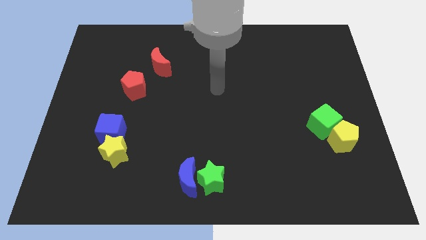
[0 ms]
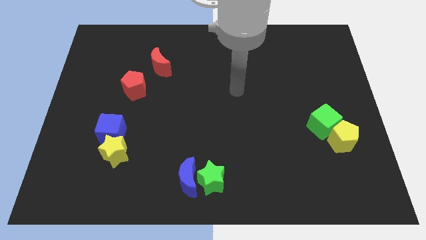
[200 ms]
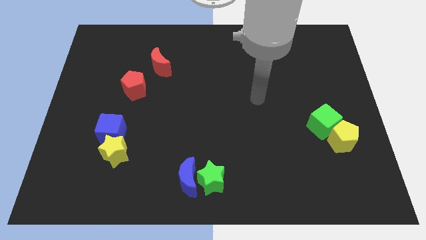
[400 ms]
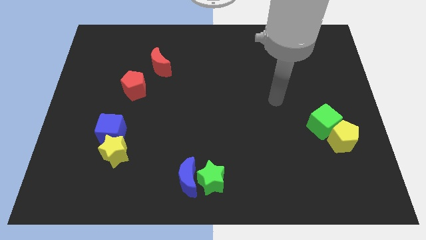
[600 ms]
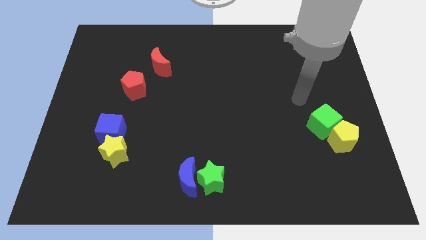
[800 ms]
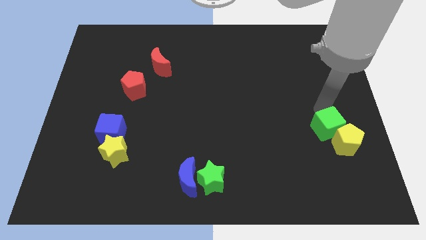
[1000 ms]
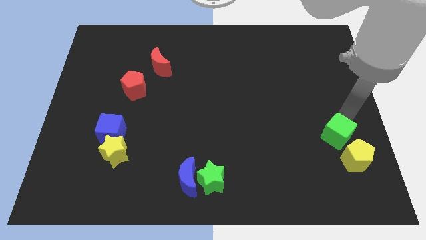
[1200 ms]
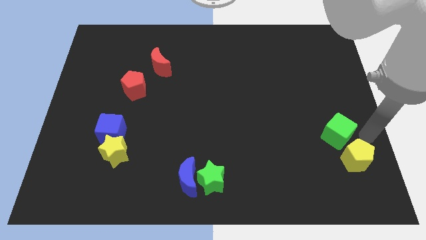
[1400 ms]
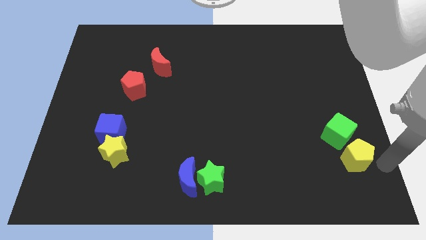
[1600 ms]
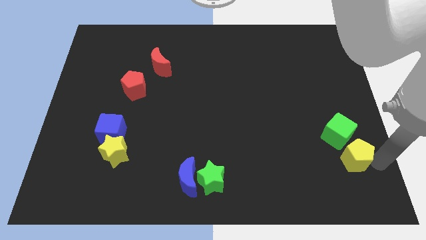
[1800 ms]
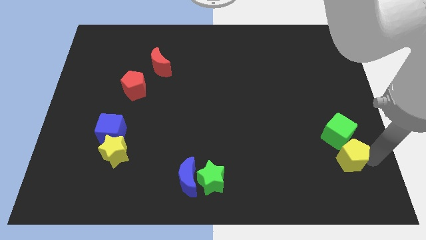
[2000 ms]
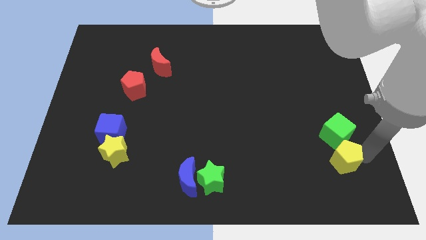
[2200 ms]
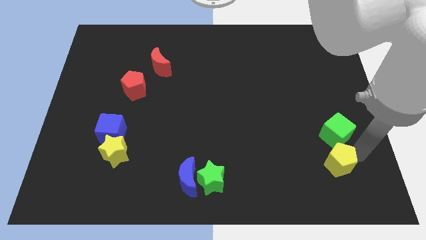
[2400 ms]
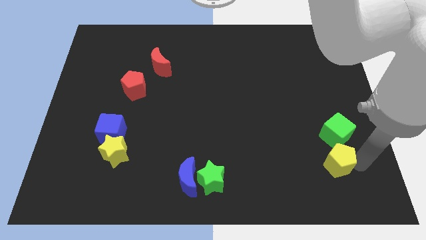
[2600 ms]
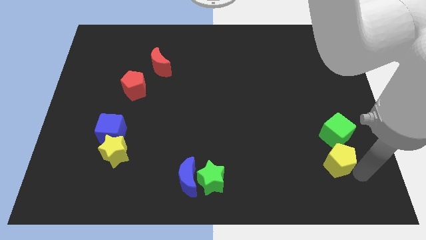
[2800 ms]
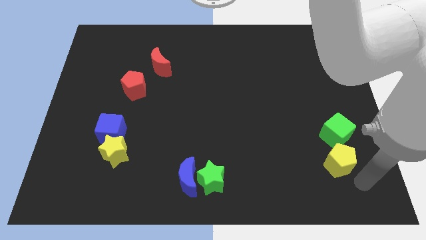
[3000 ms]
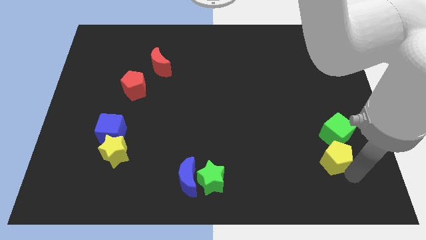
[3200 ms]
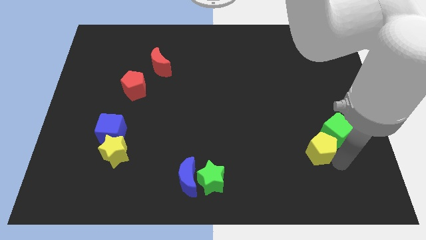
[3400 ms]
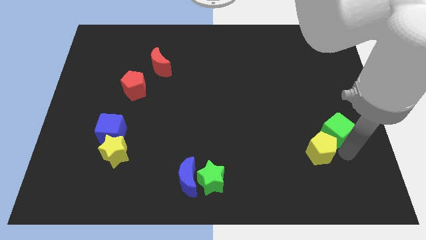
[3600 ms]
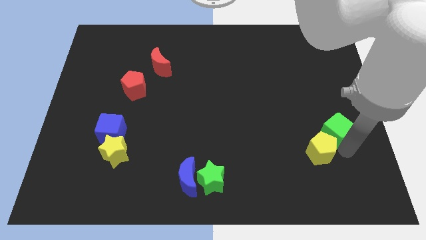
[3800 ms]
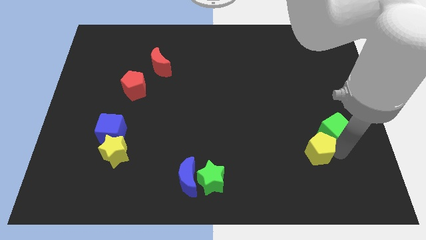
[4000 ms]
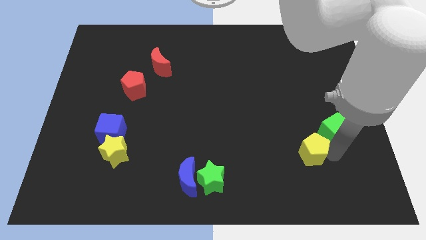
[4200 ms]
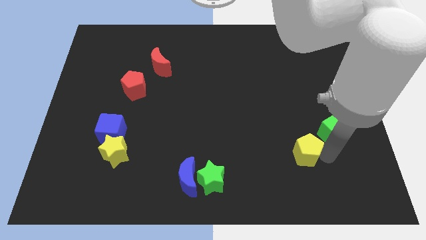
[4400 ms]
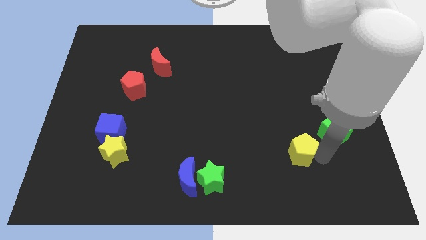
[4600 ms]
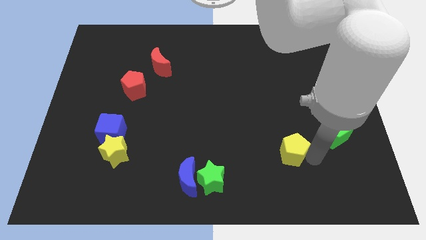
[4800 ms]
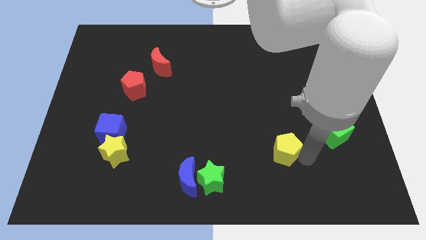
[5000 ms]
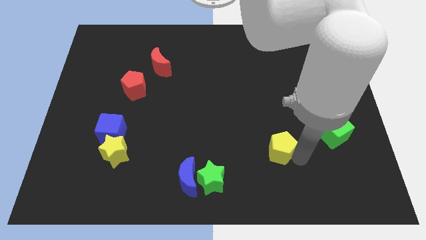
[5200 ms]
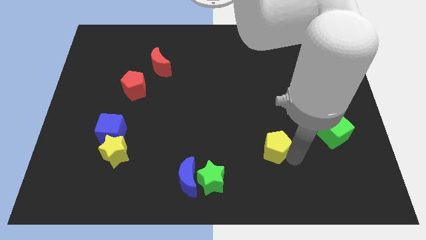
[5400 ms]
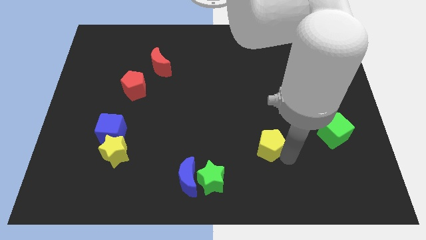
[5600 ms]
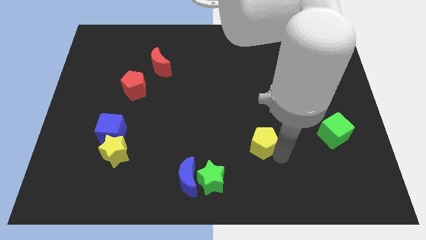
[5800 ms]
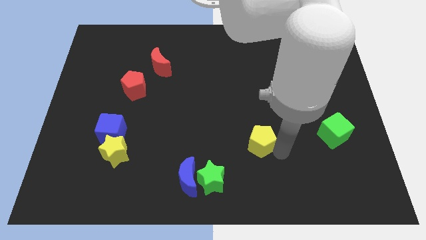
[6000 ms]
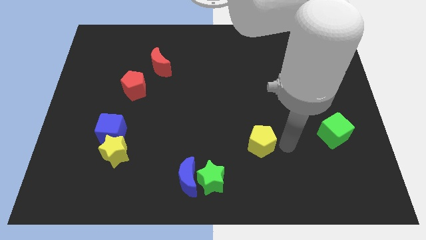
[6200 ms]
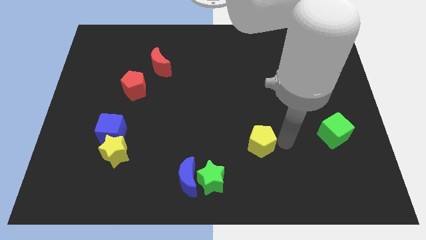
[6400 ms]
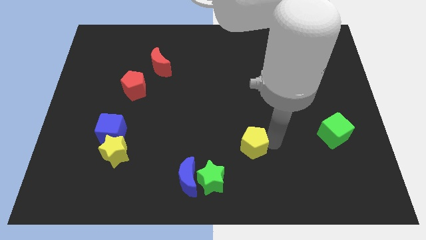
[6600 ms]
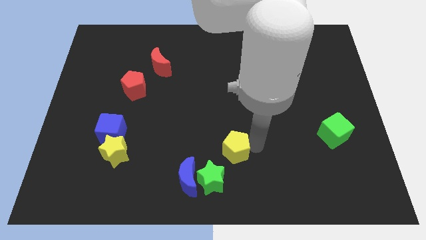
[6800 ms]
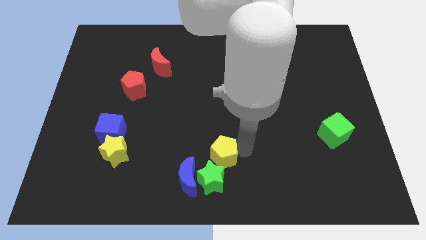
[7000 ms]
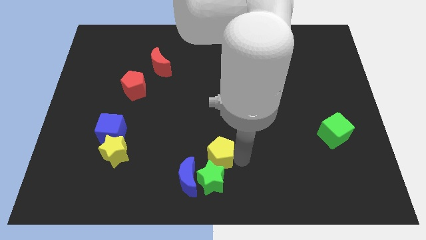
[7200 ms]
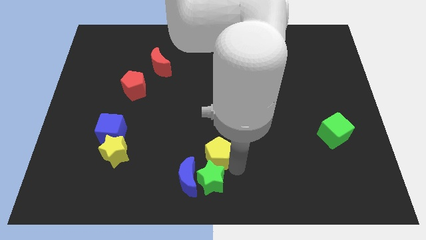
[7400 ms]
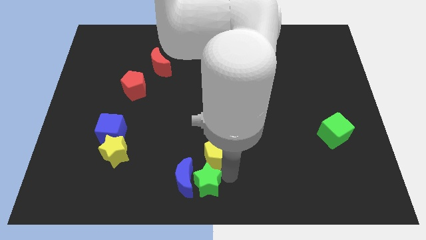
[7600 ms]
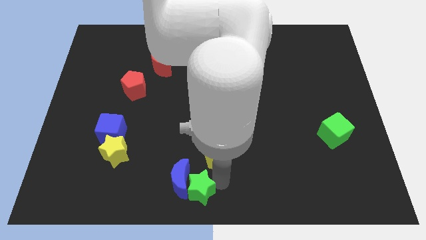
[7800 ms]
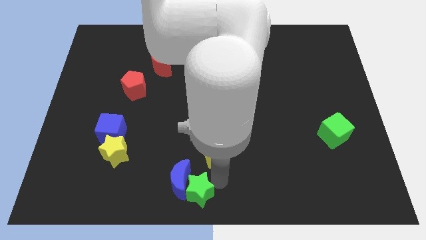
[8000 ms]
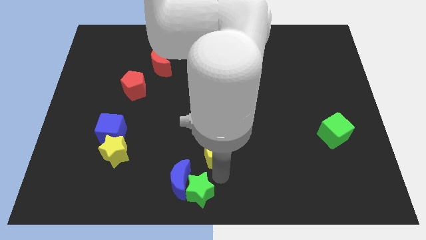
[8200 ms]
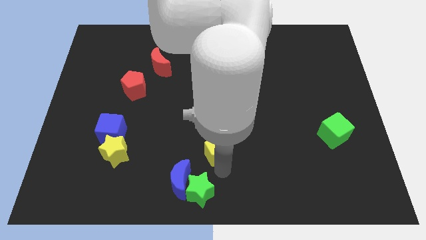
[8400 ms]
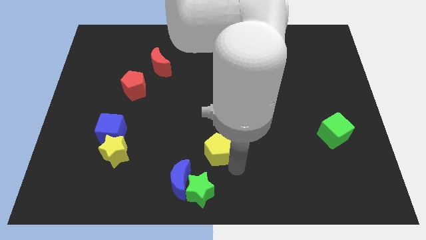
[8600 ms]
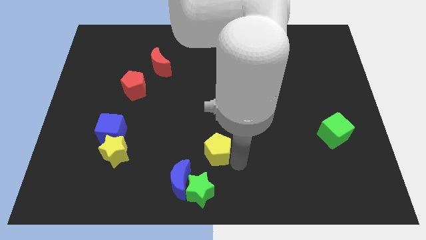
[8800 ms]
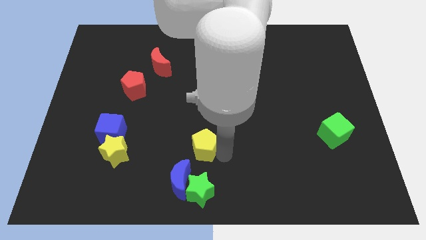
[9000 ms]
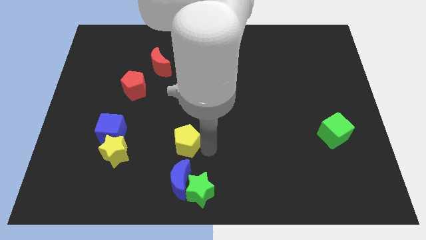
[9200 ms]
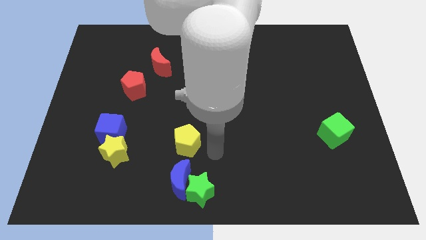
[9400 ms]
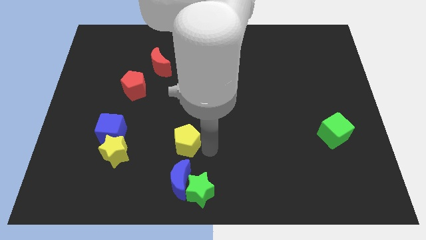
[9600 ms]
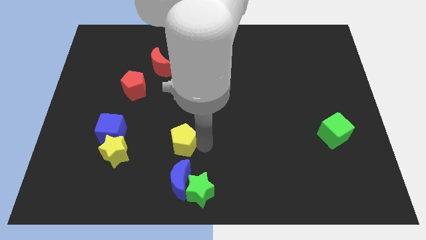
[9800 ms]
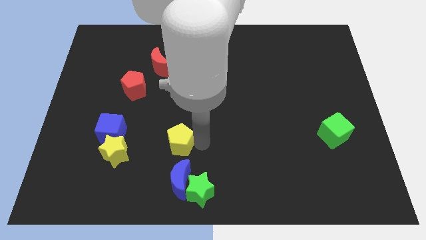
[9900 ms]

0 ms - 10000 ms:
put the yellow pentagon right of the blue cube

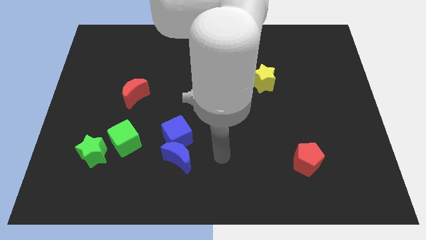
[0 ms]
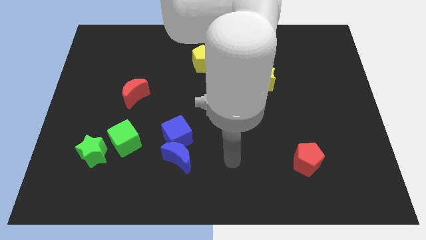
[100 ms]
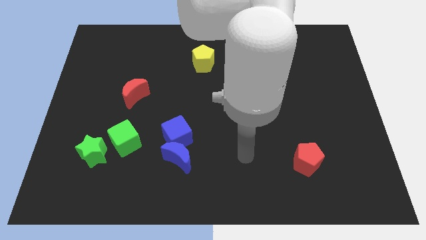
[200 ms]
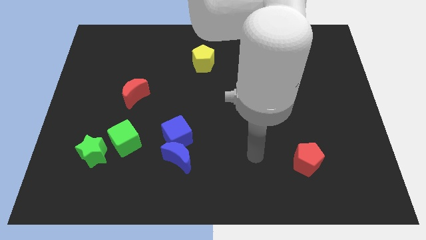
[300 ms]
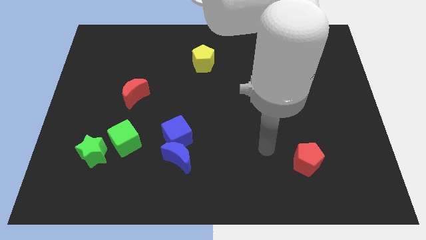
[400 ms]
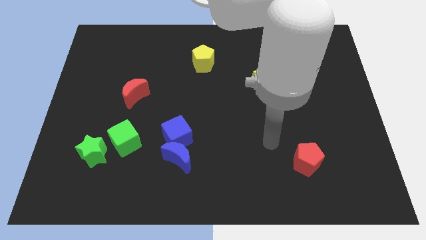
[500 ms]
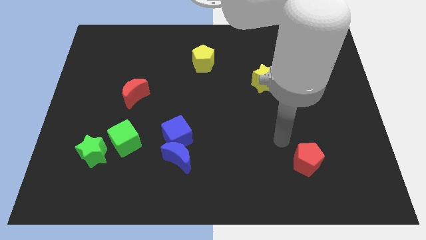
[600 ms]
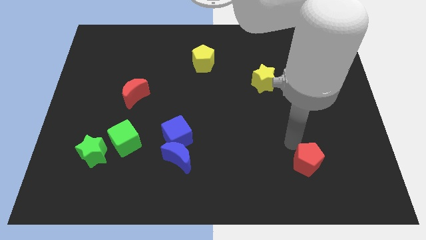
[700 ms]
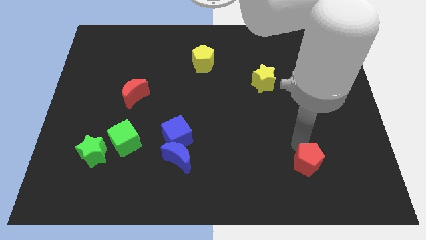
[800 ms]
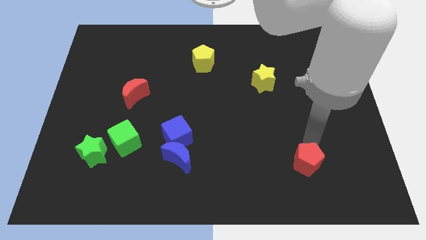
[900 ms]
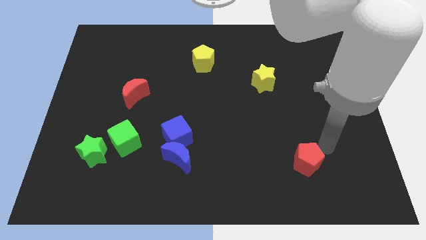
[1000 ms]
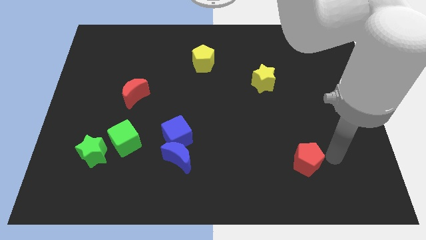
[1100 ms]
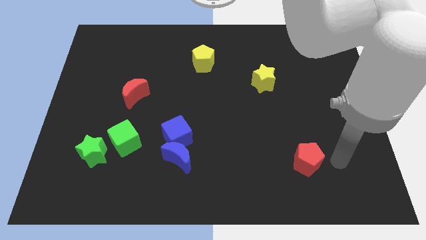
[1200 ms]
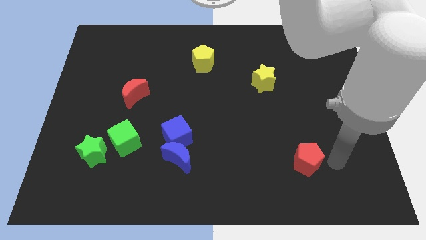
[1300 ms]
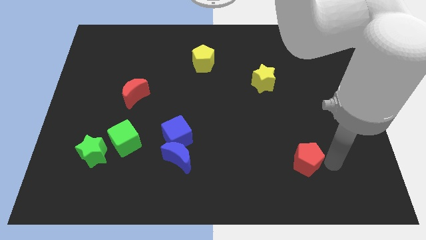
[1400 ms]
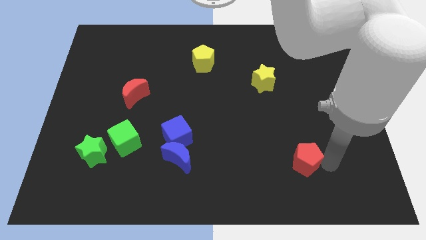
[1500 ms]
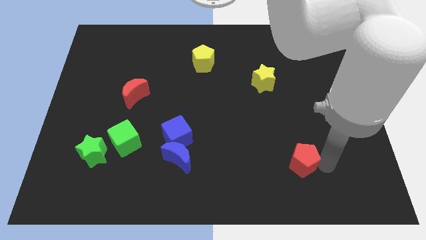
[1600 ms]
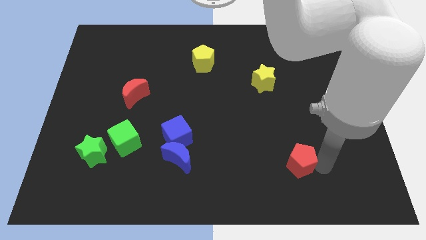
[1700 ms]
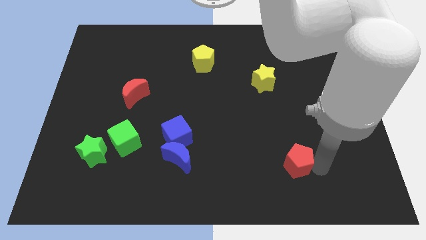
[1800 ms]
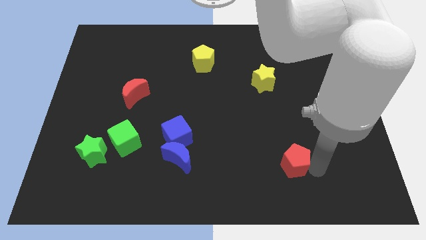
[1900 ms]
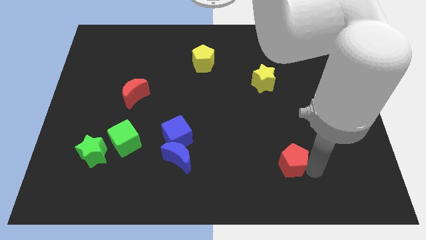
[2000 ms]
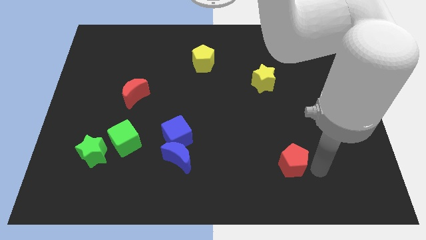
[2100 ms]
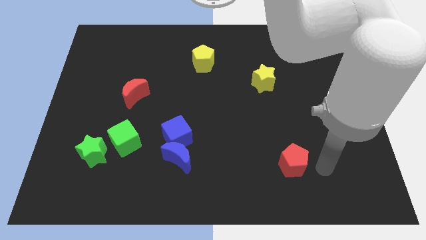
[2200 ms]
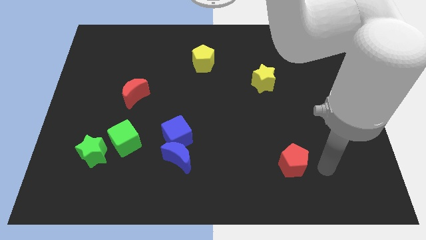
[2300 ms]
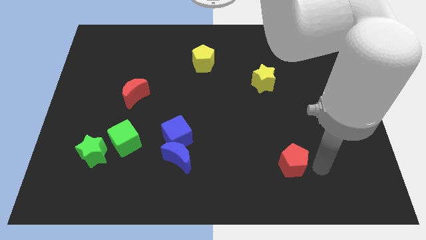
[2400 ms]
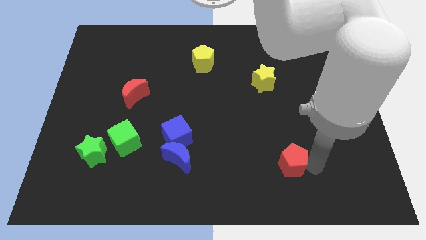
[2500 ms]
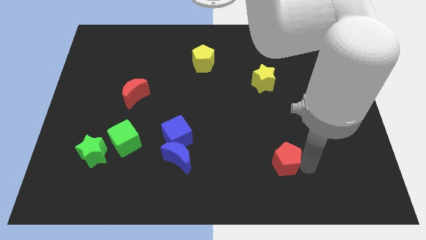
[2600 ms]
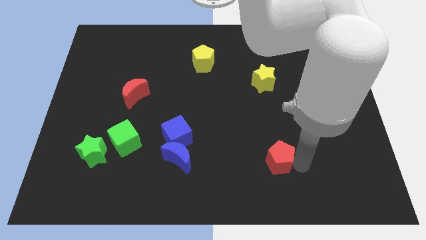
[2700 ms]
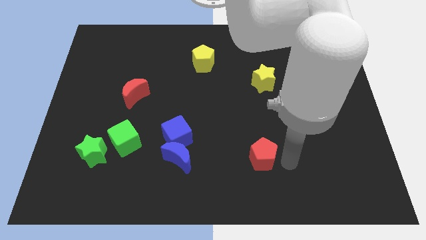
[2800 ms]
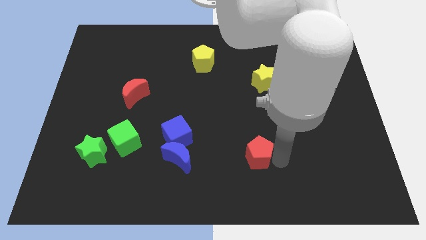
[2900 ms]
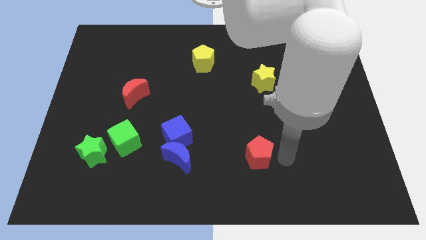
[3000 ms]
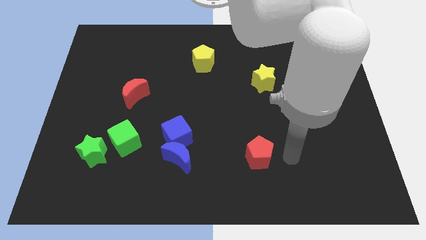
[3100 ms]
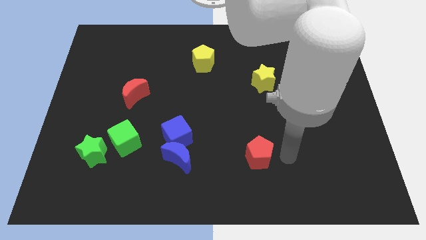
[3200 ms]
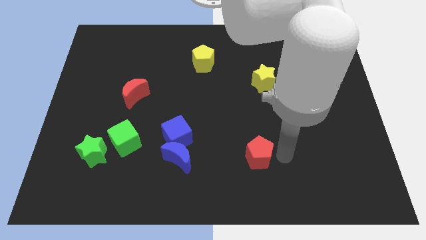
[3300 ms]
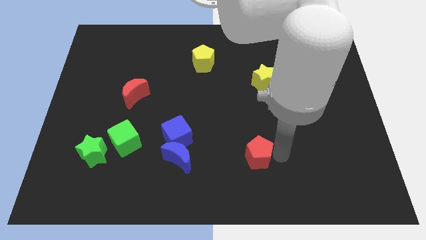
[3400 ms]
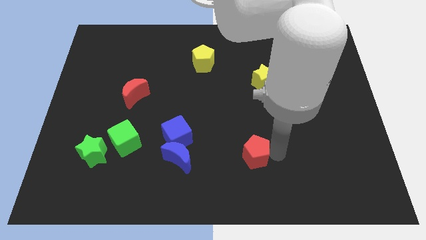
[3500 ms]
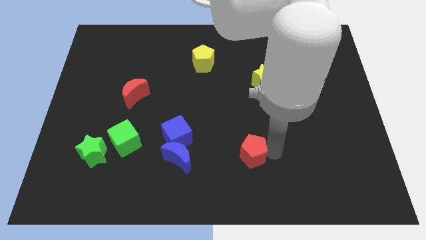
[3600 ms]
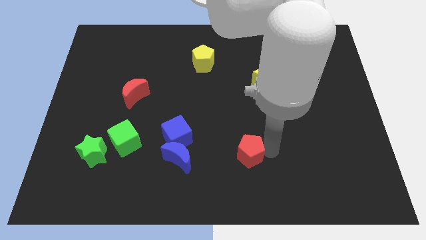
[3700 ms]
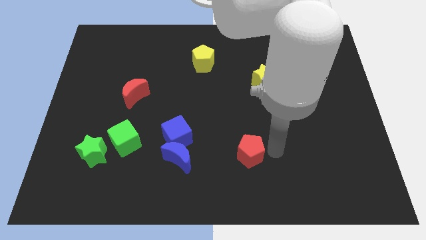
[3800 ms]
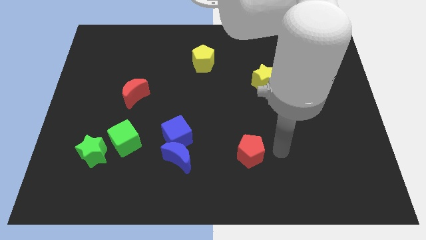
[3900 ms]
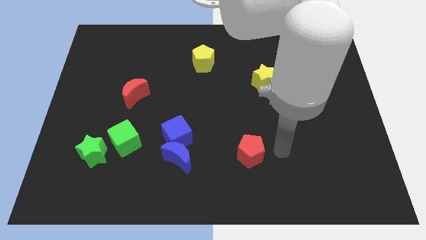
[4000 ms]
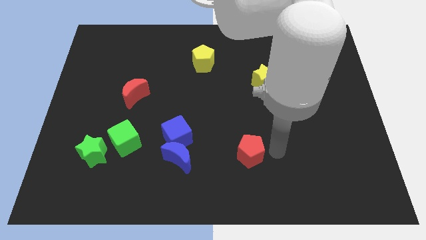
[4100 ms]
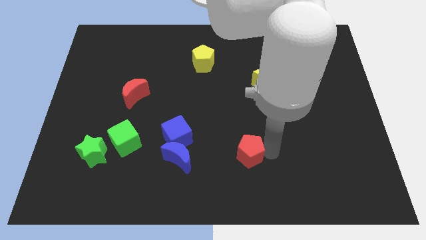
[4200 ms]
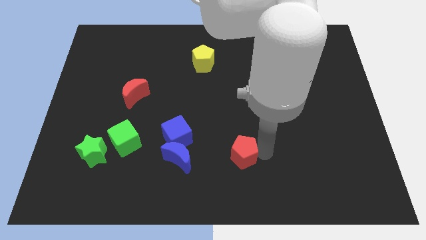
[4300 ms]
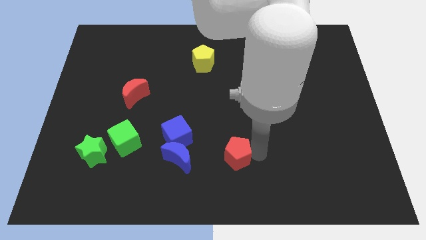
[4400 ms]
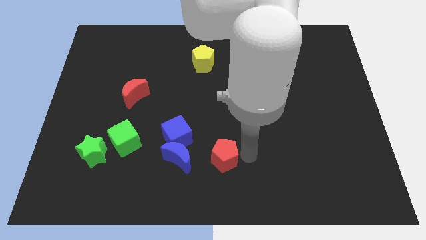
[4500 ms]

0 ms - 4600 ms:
move the red pentagon to the bottom right of the blue cube
